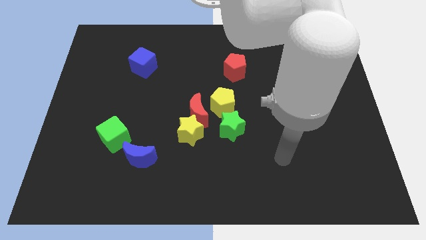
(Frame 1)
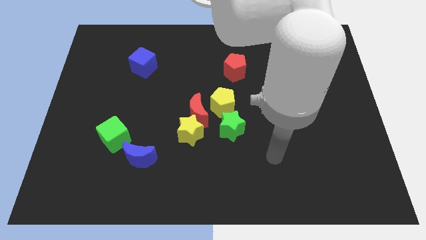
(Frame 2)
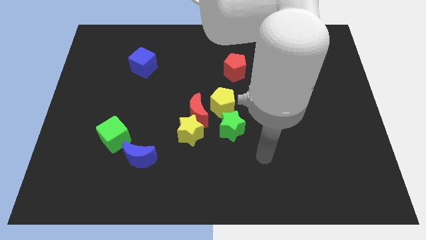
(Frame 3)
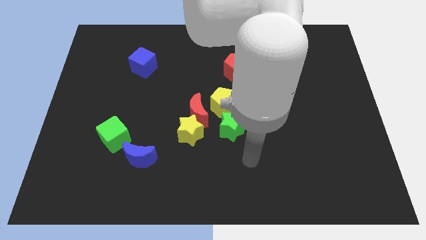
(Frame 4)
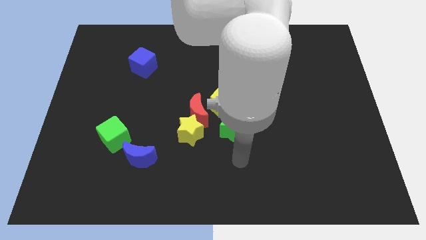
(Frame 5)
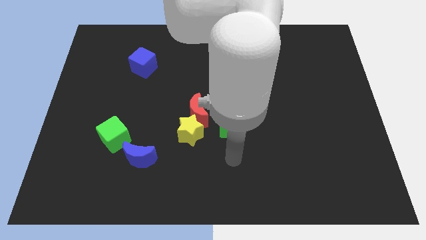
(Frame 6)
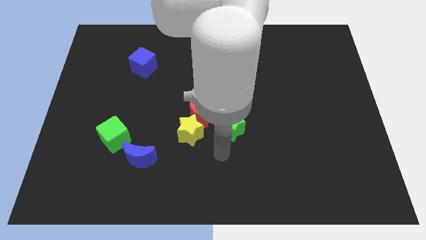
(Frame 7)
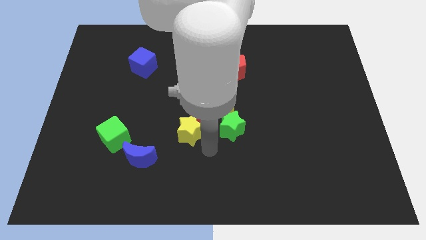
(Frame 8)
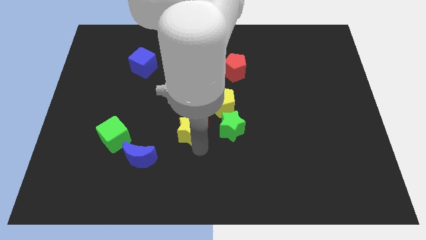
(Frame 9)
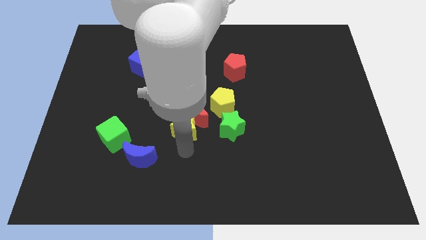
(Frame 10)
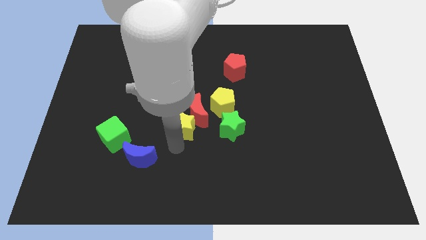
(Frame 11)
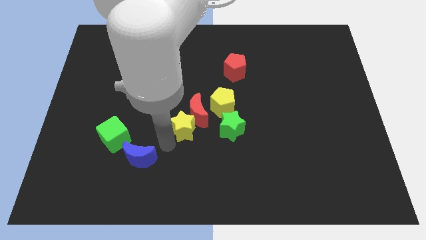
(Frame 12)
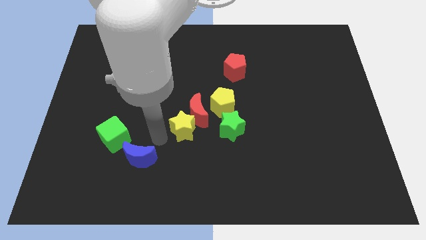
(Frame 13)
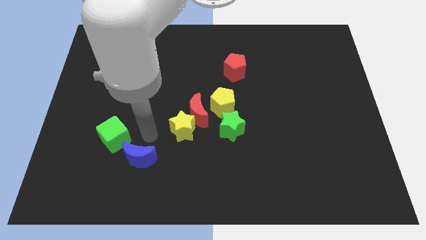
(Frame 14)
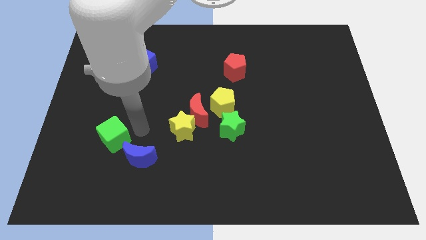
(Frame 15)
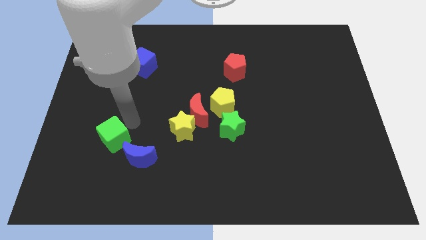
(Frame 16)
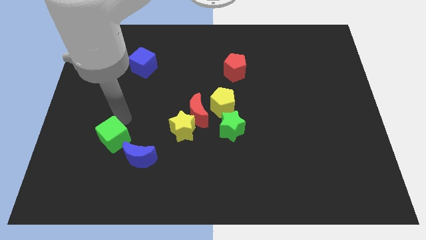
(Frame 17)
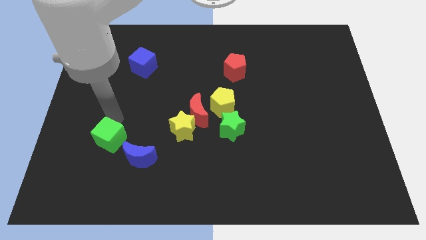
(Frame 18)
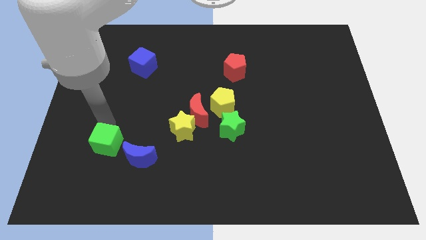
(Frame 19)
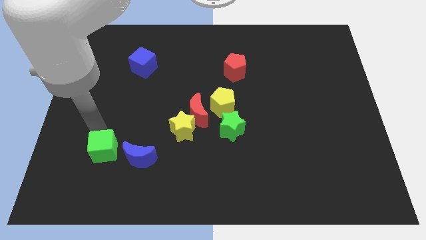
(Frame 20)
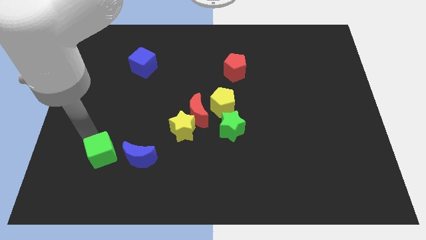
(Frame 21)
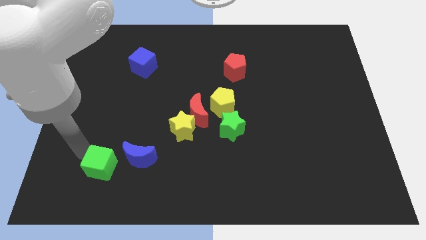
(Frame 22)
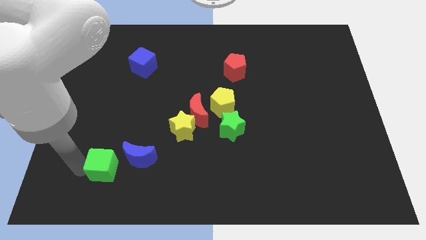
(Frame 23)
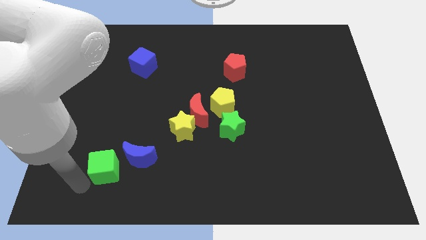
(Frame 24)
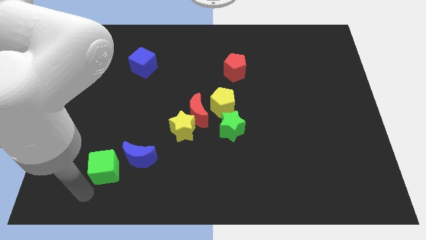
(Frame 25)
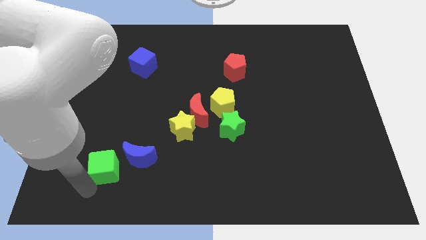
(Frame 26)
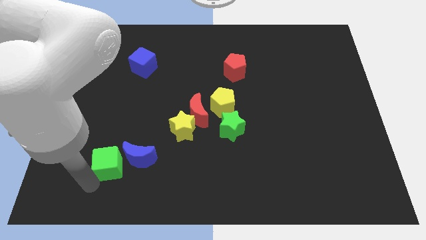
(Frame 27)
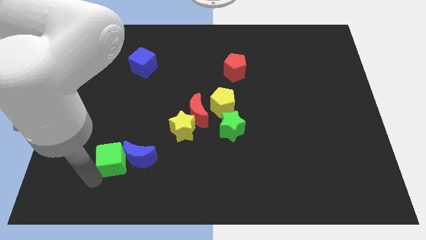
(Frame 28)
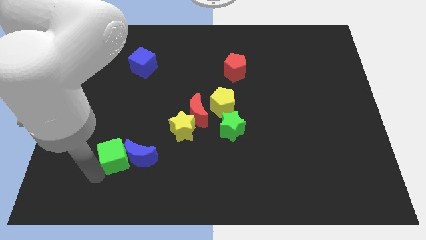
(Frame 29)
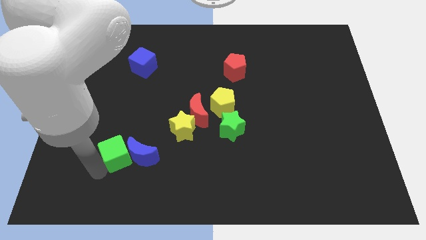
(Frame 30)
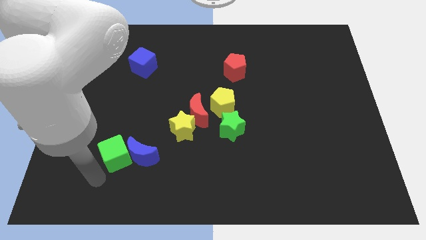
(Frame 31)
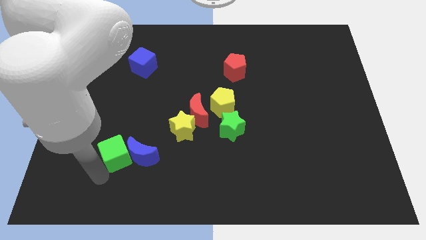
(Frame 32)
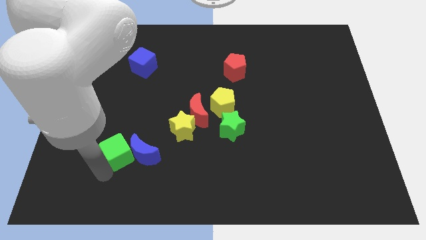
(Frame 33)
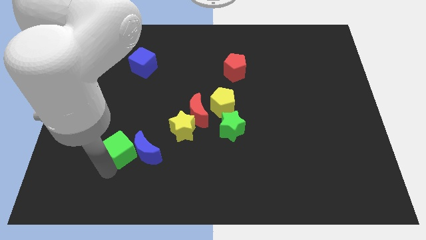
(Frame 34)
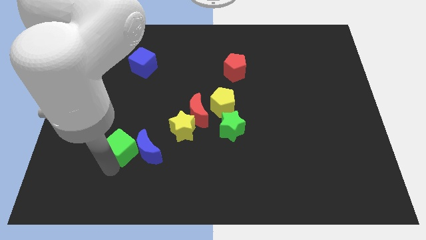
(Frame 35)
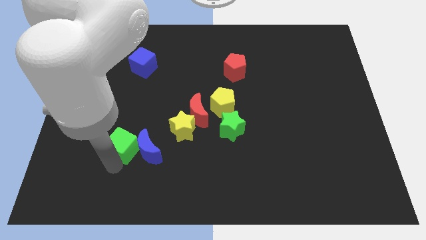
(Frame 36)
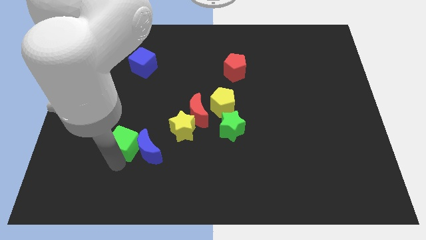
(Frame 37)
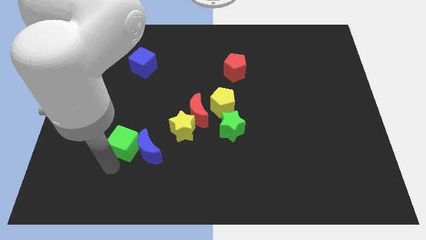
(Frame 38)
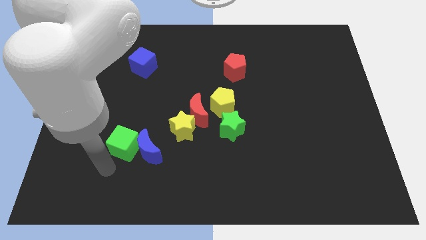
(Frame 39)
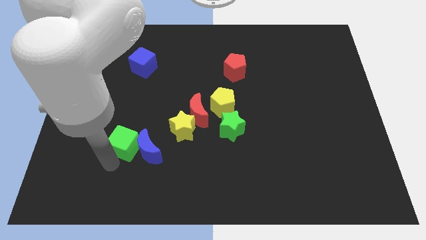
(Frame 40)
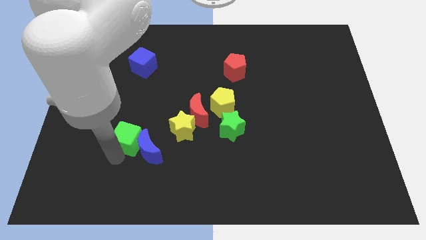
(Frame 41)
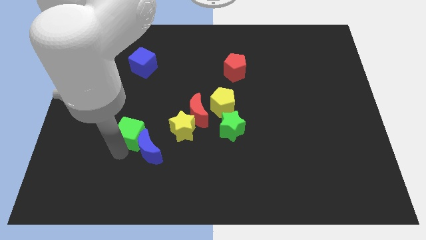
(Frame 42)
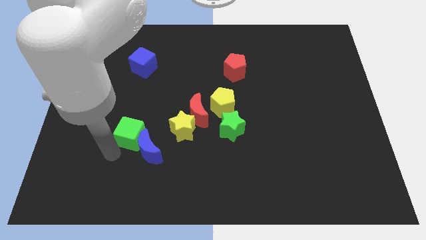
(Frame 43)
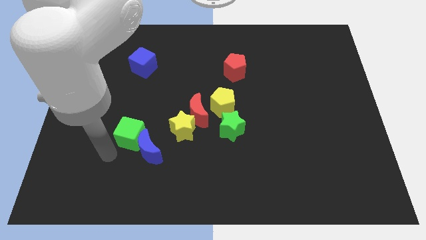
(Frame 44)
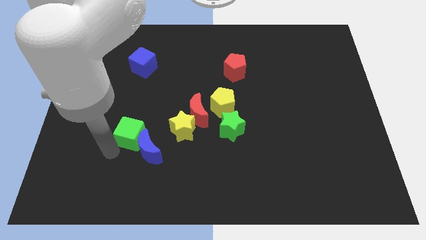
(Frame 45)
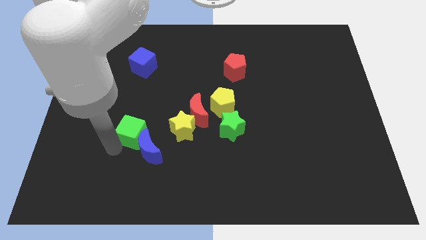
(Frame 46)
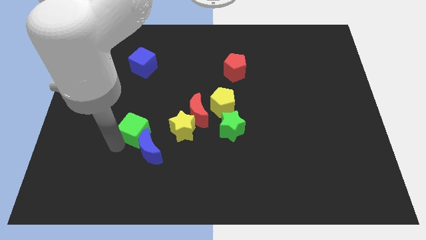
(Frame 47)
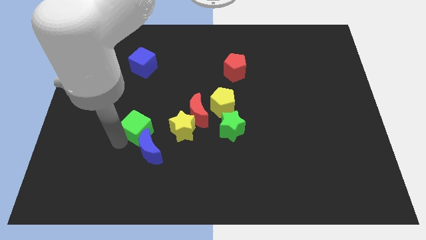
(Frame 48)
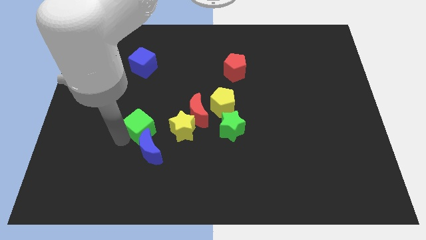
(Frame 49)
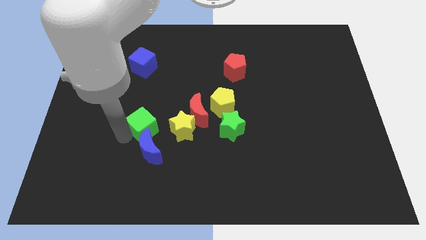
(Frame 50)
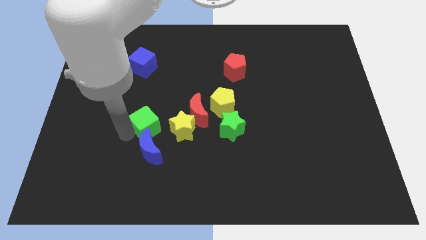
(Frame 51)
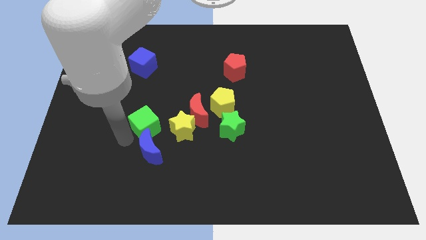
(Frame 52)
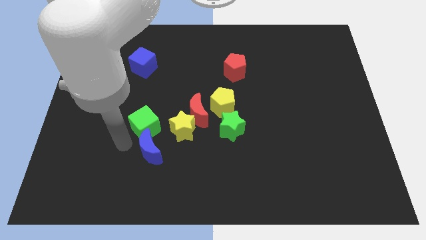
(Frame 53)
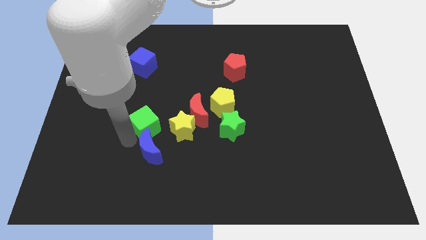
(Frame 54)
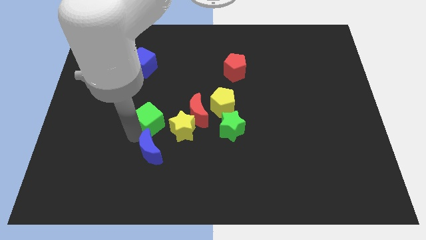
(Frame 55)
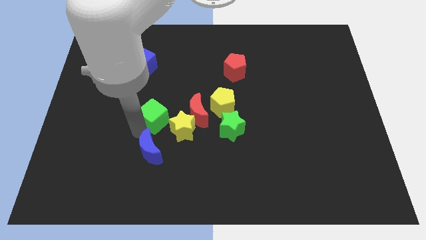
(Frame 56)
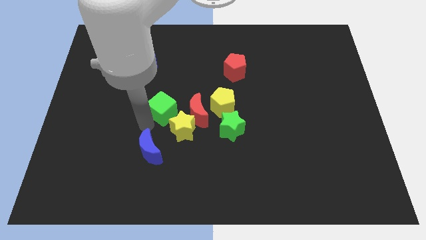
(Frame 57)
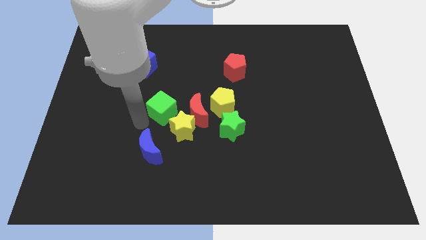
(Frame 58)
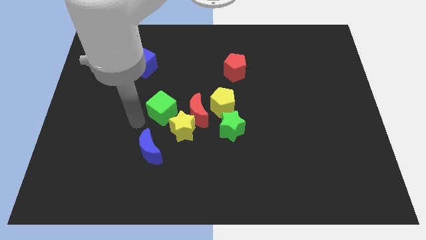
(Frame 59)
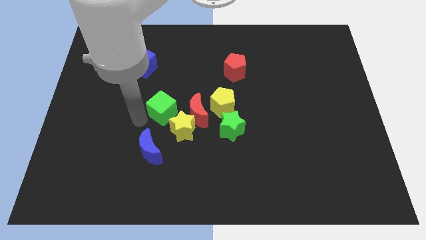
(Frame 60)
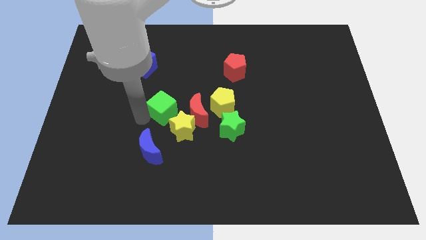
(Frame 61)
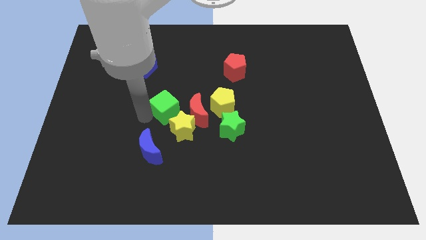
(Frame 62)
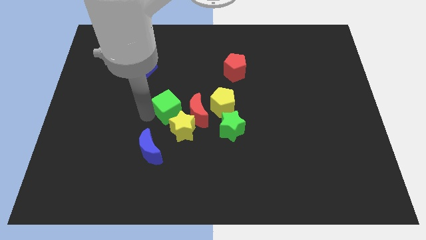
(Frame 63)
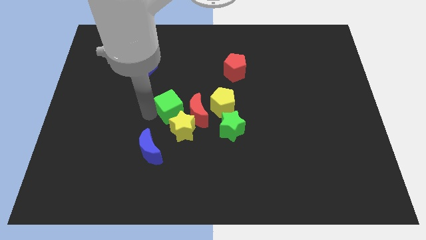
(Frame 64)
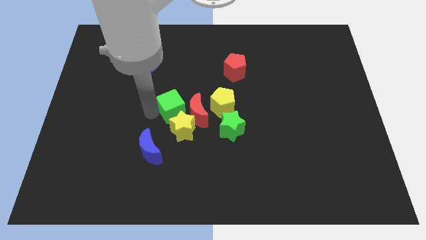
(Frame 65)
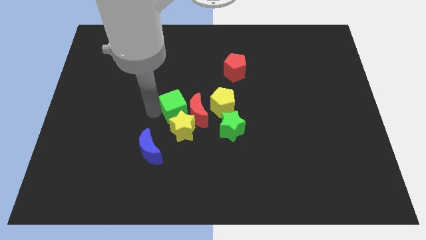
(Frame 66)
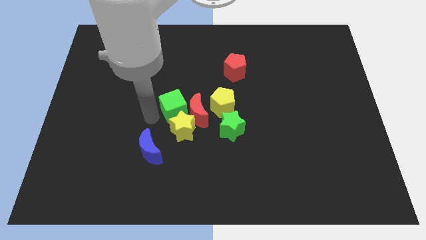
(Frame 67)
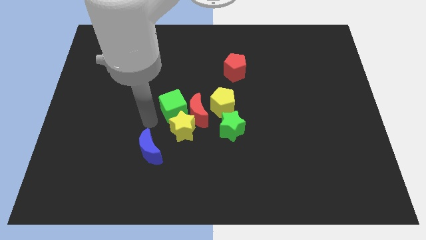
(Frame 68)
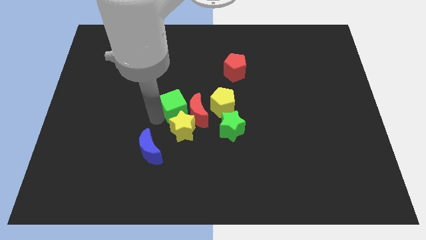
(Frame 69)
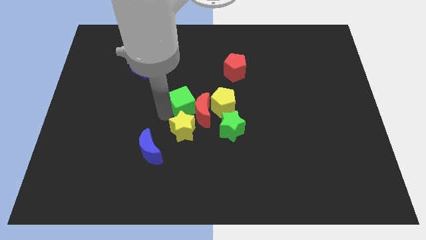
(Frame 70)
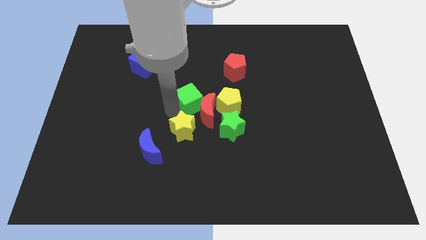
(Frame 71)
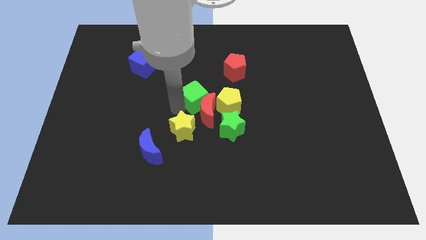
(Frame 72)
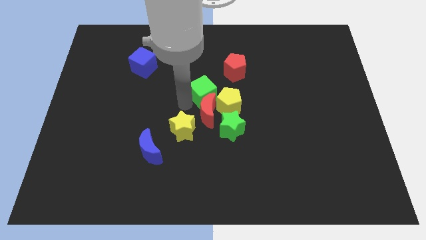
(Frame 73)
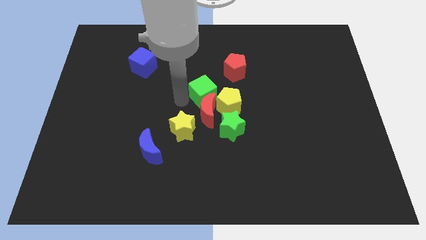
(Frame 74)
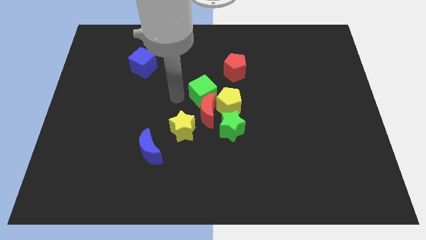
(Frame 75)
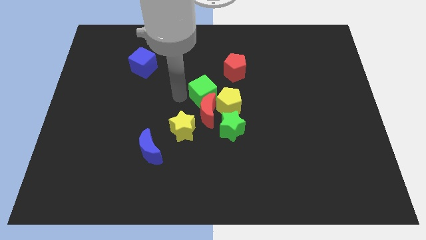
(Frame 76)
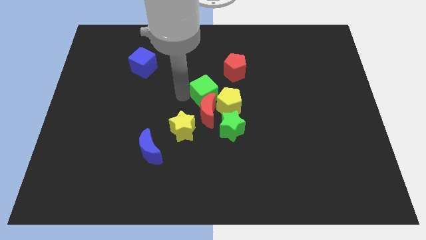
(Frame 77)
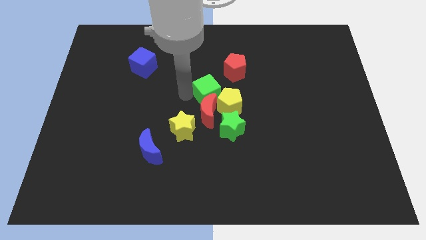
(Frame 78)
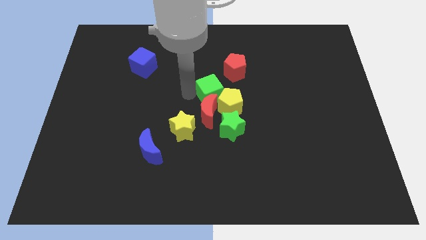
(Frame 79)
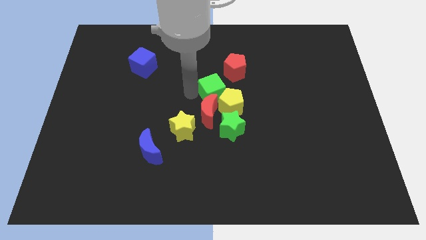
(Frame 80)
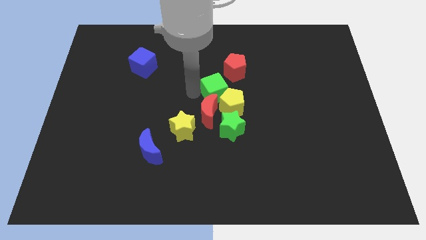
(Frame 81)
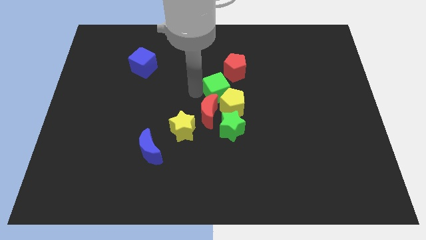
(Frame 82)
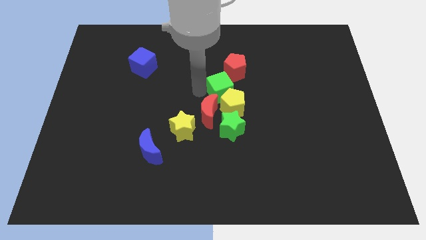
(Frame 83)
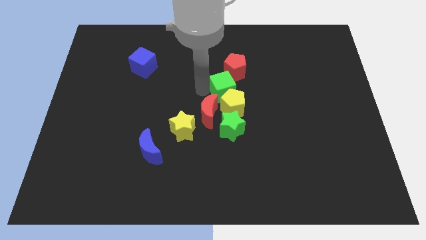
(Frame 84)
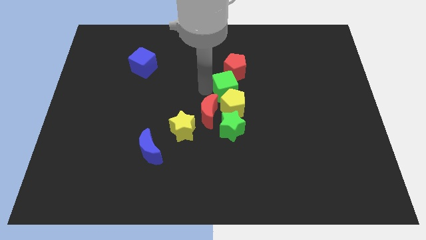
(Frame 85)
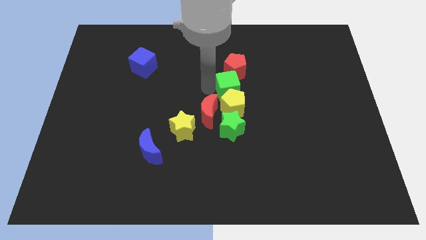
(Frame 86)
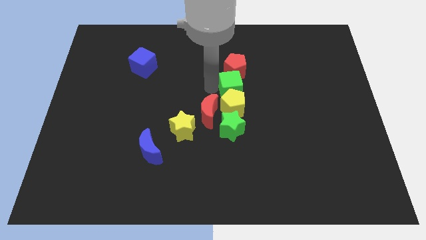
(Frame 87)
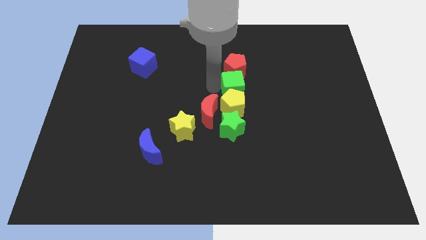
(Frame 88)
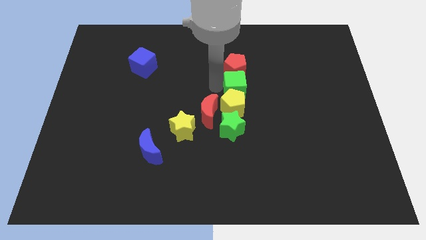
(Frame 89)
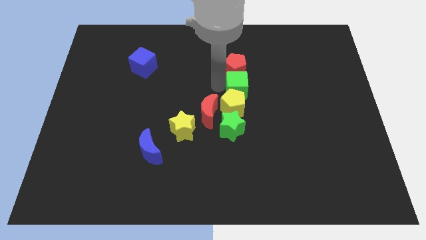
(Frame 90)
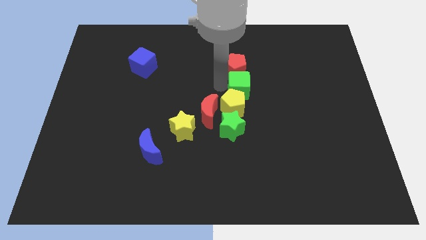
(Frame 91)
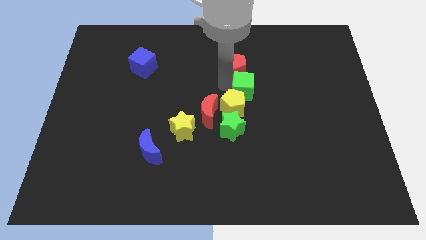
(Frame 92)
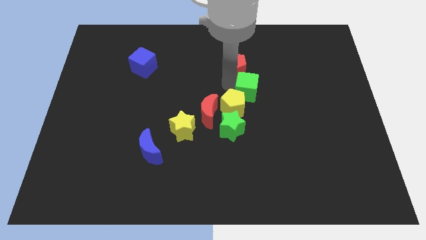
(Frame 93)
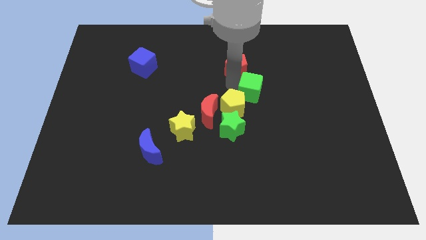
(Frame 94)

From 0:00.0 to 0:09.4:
slide the green cube to the right side of the yellow pentagon
